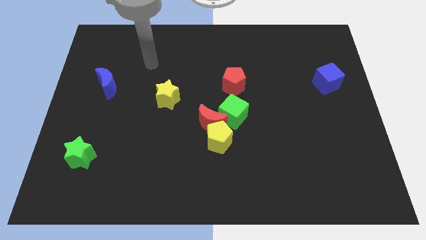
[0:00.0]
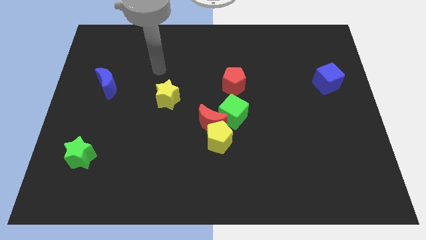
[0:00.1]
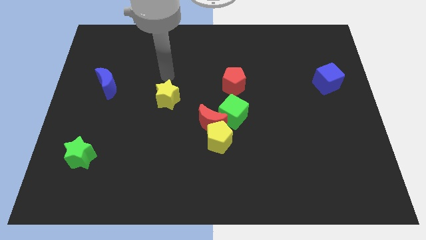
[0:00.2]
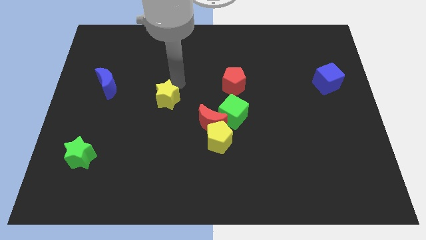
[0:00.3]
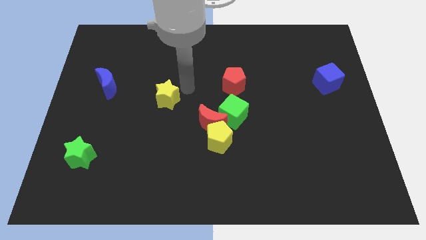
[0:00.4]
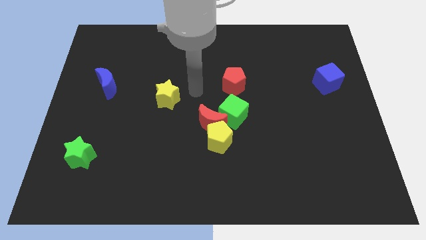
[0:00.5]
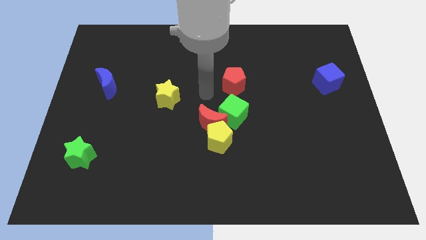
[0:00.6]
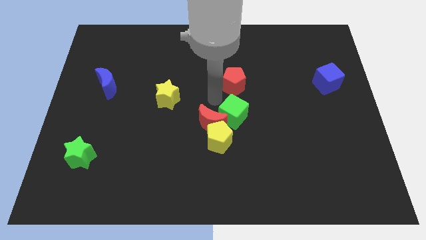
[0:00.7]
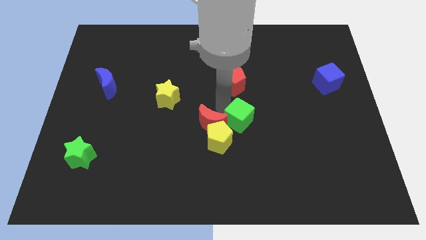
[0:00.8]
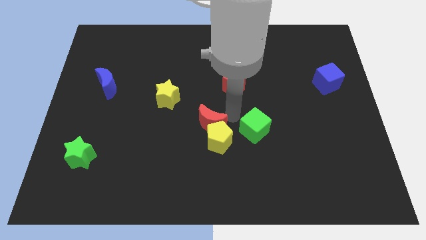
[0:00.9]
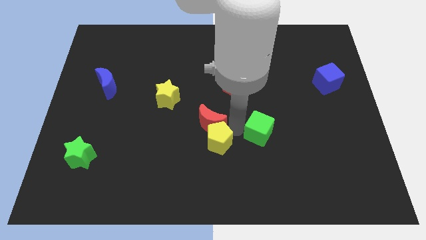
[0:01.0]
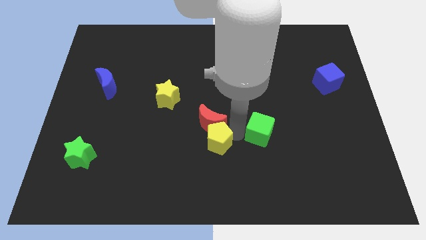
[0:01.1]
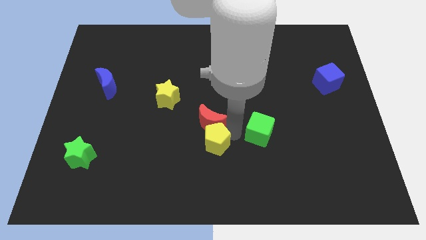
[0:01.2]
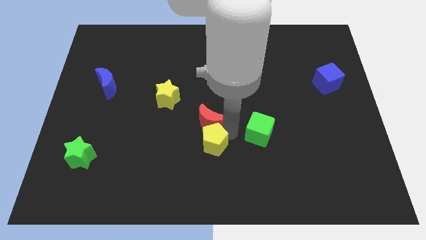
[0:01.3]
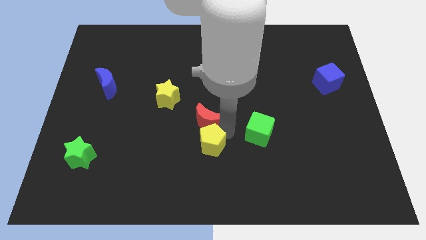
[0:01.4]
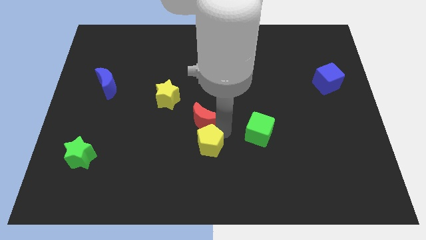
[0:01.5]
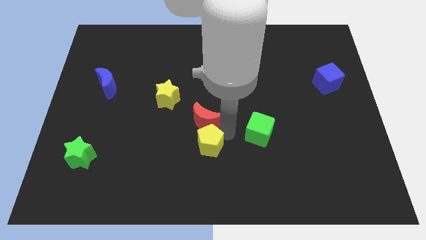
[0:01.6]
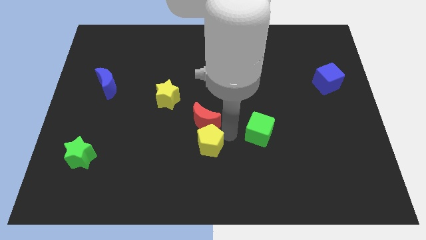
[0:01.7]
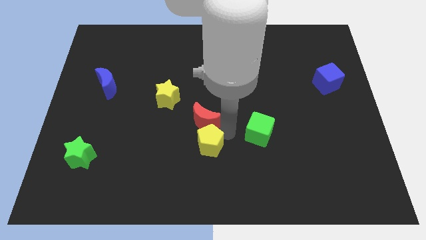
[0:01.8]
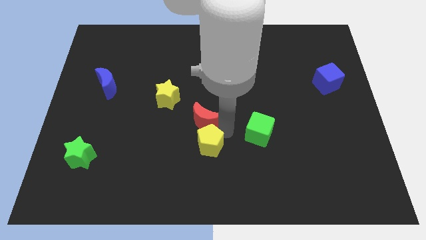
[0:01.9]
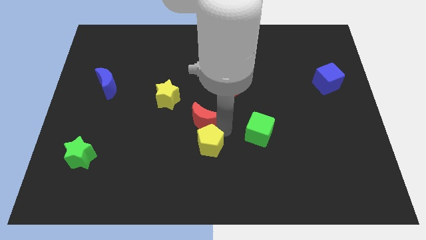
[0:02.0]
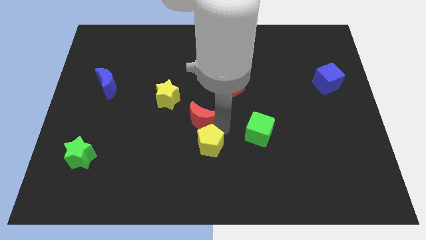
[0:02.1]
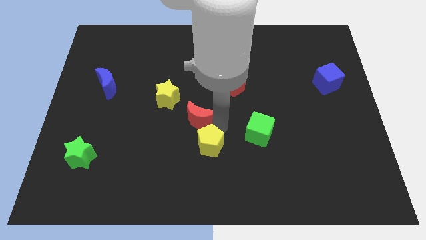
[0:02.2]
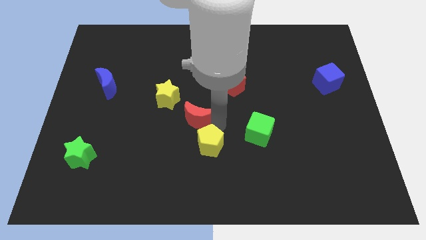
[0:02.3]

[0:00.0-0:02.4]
separate the red moon from the yellow pentagon and green cube

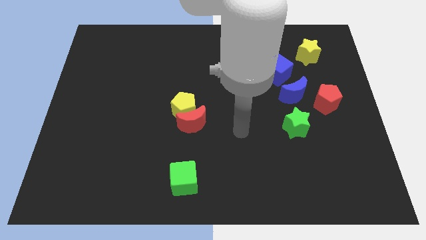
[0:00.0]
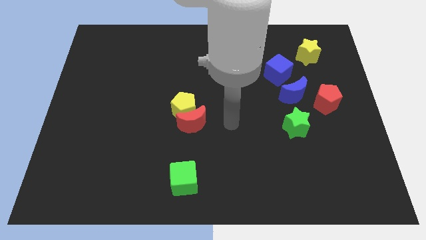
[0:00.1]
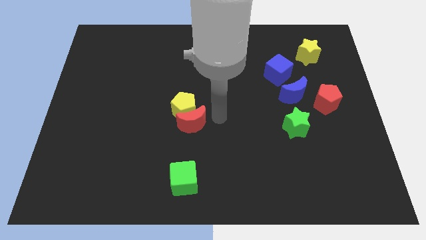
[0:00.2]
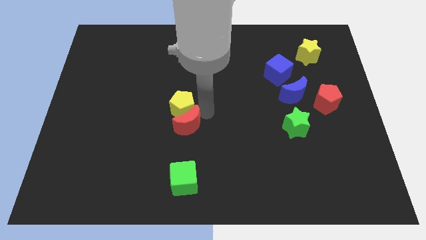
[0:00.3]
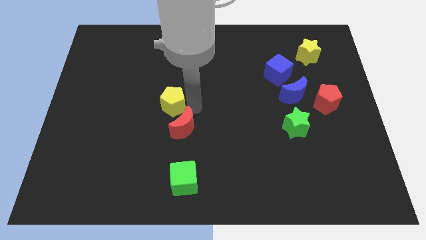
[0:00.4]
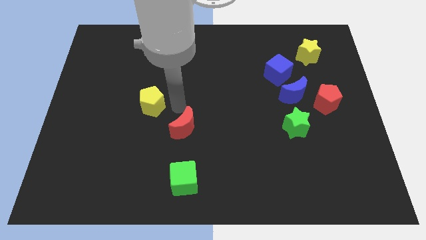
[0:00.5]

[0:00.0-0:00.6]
move the red moon away from the yellow pentagon

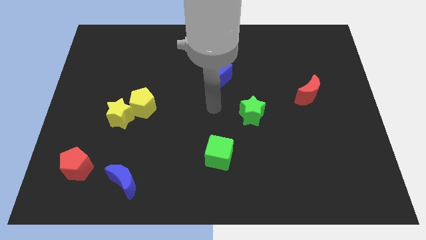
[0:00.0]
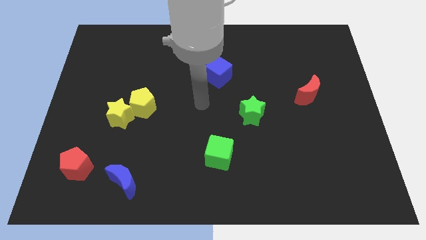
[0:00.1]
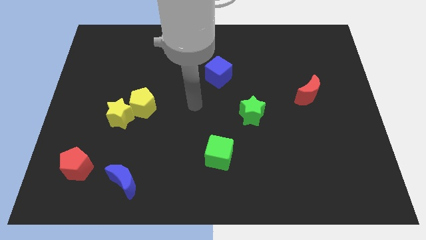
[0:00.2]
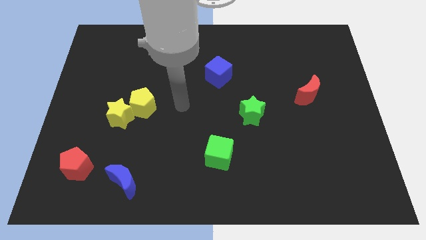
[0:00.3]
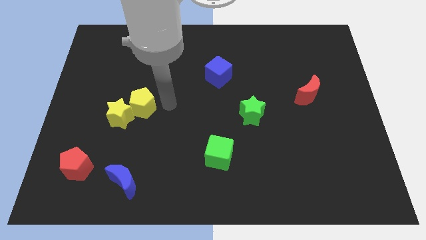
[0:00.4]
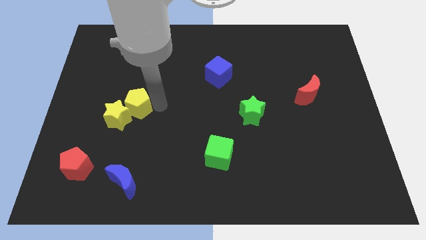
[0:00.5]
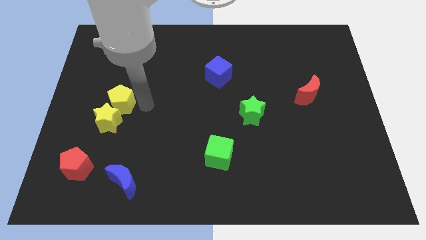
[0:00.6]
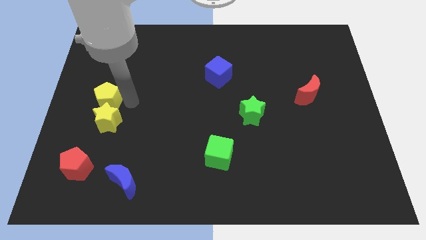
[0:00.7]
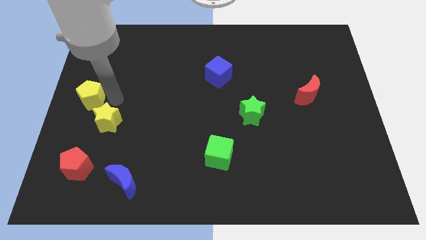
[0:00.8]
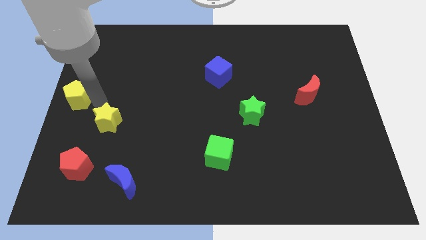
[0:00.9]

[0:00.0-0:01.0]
move the yellow star away from the yellow pentagon

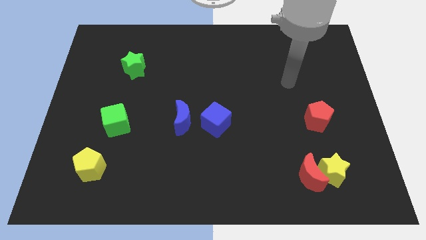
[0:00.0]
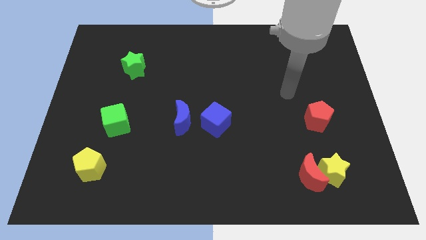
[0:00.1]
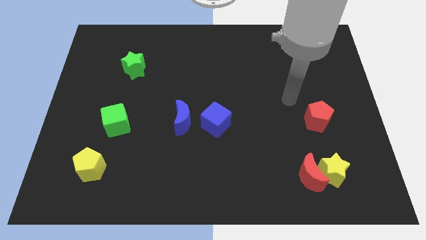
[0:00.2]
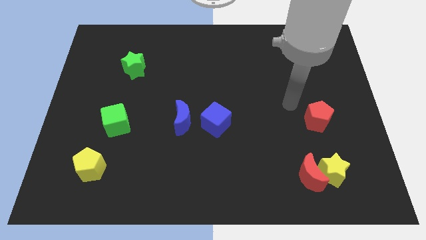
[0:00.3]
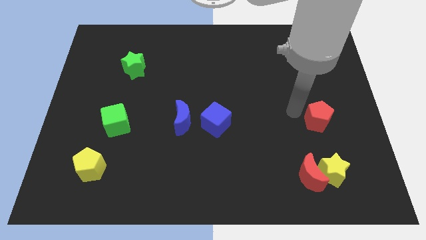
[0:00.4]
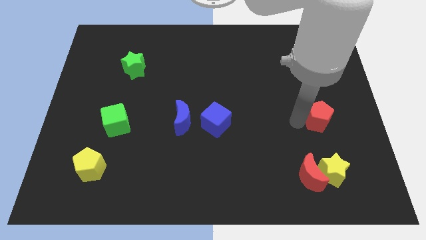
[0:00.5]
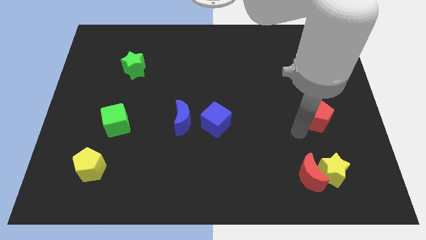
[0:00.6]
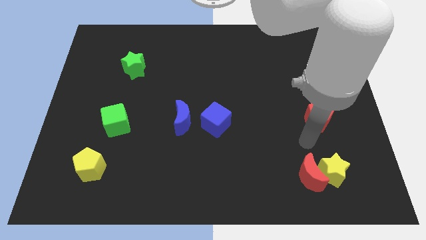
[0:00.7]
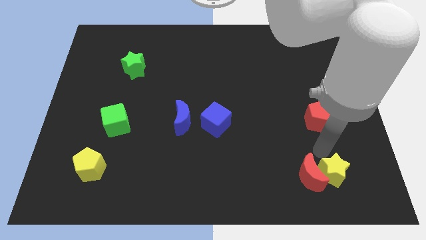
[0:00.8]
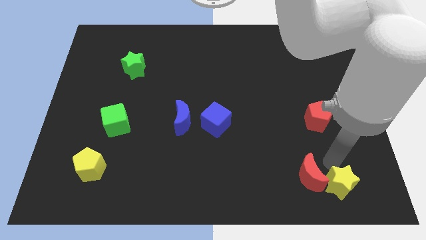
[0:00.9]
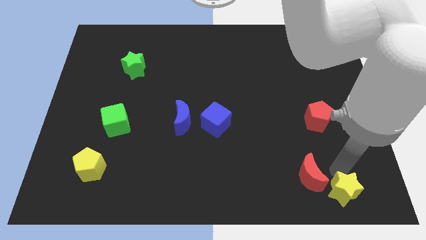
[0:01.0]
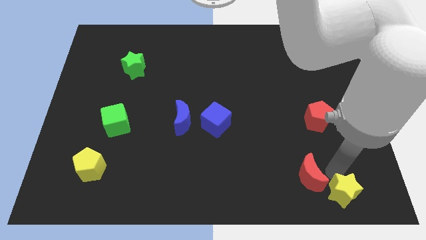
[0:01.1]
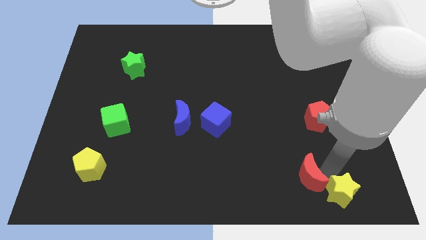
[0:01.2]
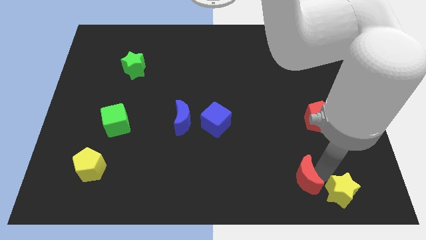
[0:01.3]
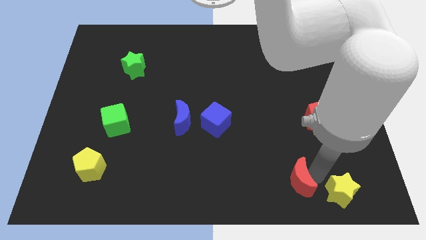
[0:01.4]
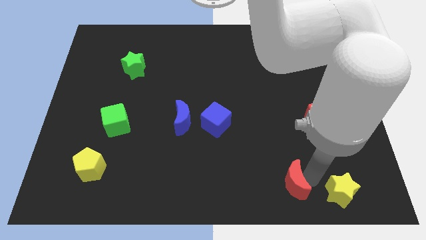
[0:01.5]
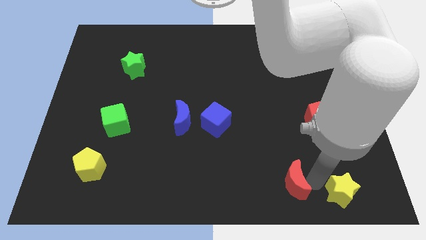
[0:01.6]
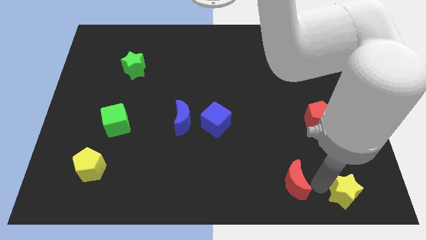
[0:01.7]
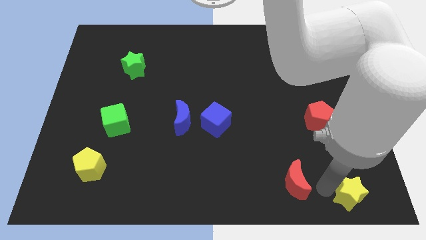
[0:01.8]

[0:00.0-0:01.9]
pull the red moon apart from the yellow star

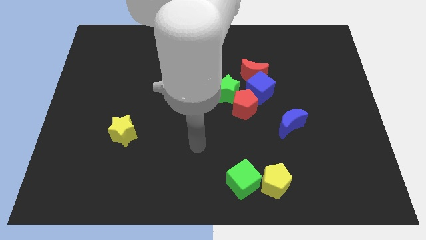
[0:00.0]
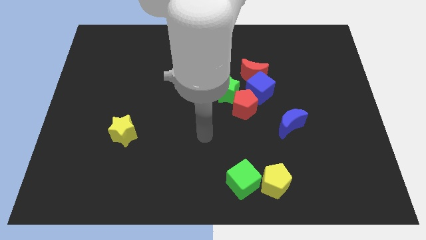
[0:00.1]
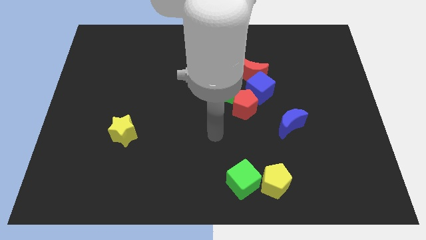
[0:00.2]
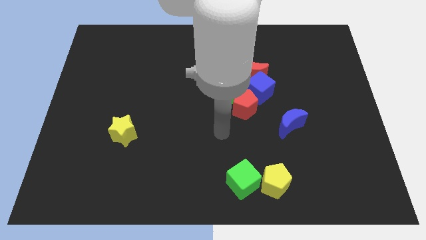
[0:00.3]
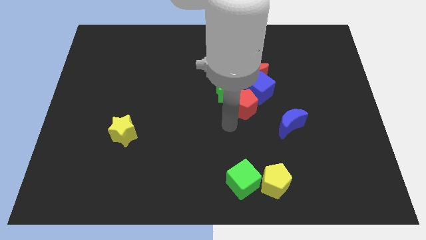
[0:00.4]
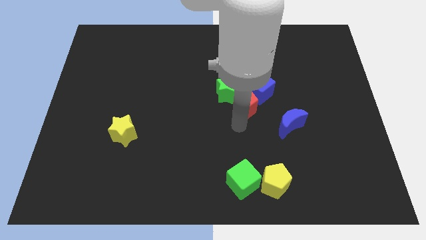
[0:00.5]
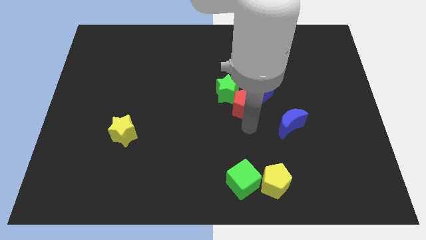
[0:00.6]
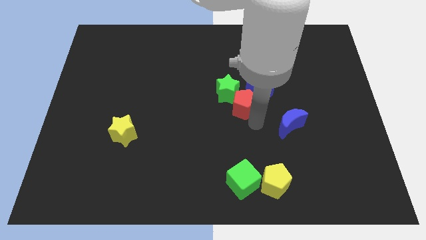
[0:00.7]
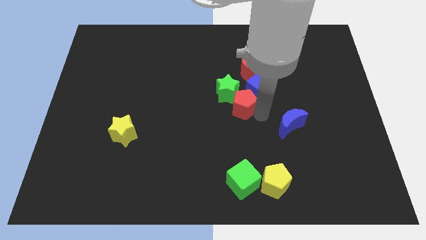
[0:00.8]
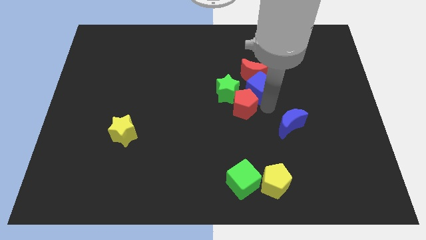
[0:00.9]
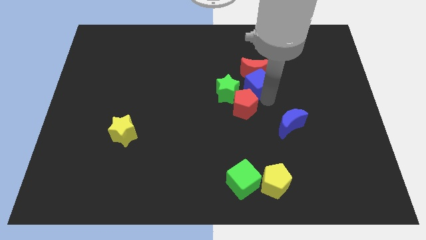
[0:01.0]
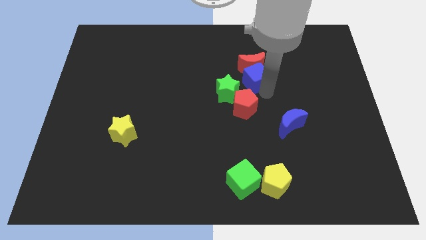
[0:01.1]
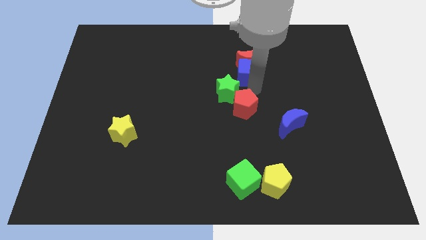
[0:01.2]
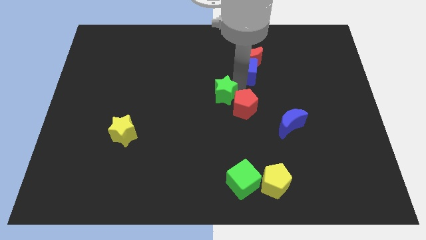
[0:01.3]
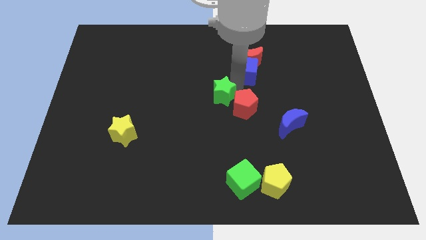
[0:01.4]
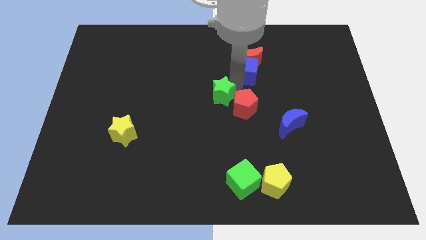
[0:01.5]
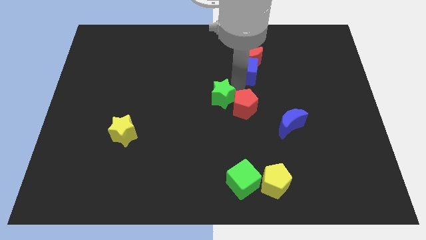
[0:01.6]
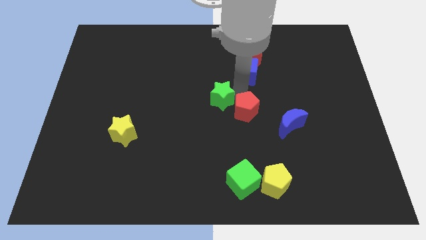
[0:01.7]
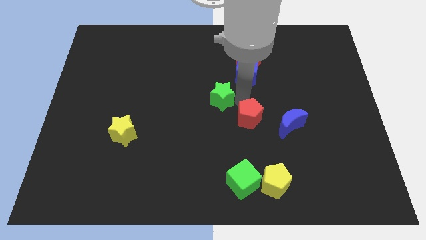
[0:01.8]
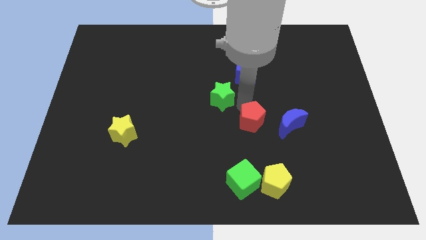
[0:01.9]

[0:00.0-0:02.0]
move the red pentagon away from the green star and blue cube

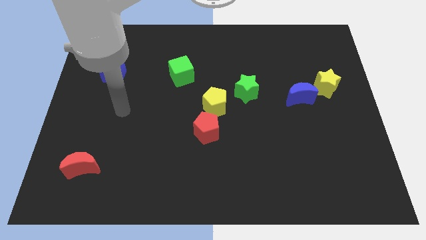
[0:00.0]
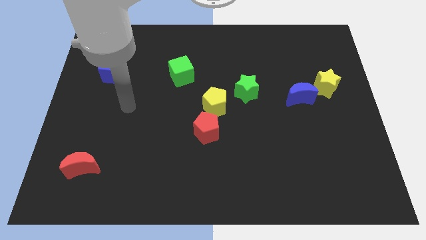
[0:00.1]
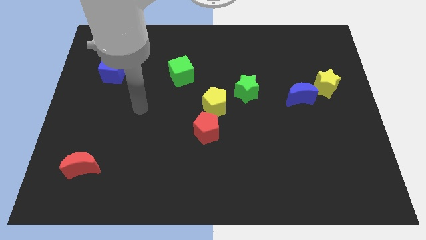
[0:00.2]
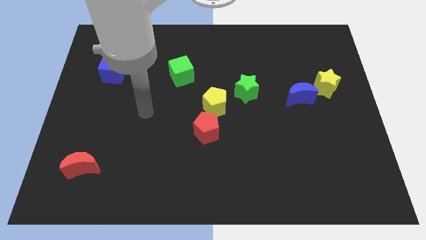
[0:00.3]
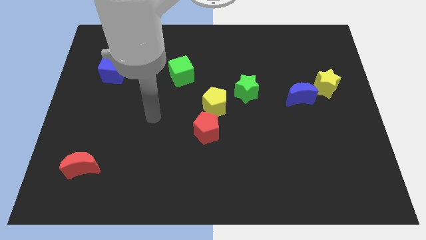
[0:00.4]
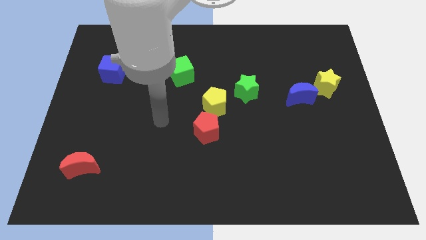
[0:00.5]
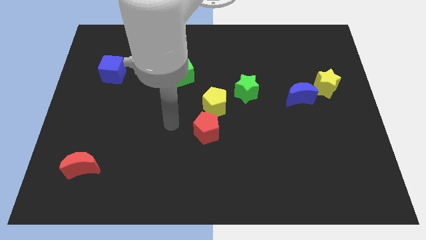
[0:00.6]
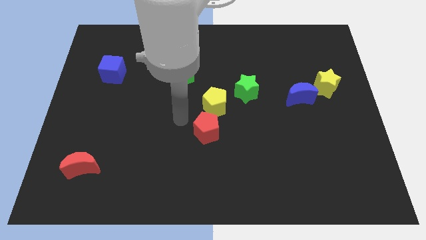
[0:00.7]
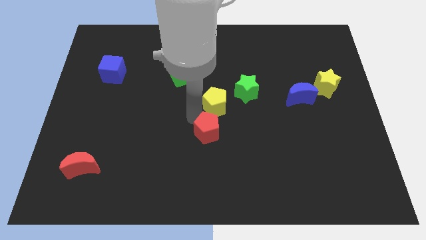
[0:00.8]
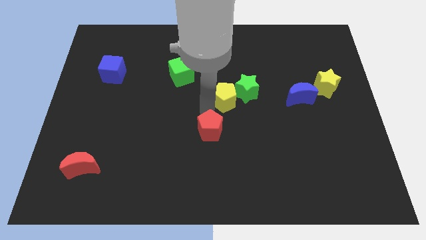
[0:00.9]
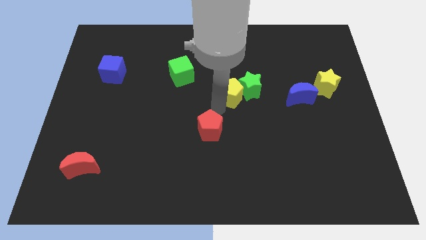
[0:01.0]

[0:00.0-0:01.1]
move the red pentagon away from the yellow pentagon

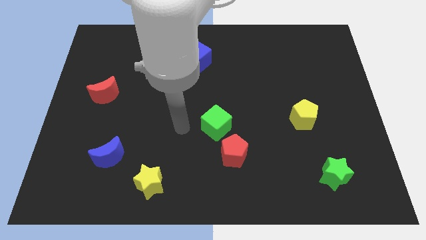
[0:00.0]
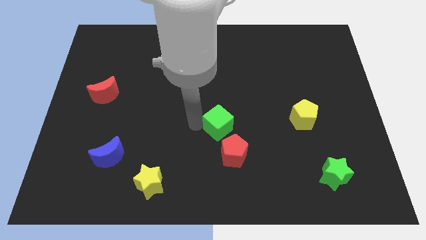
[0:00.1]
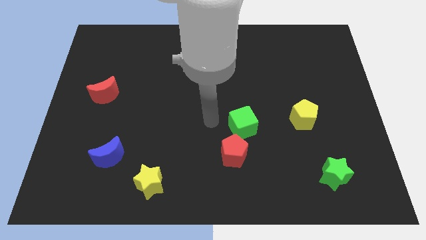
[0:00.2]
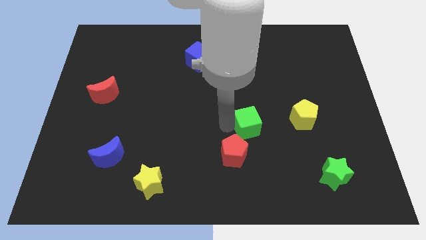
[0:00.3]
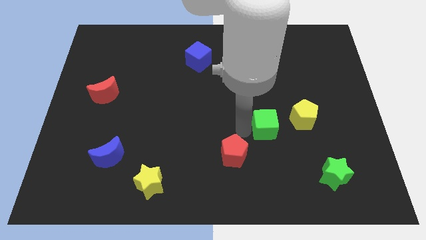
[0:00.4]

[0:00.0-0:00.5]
move the red pentagon away from the green cube

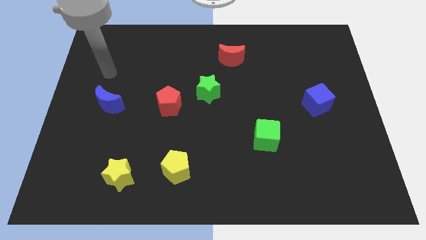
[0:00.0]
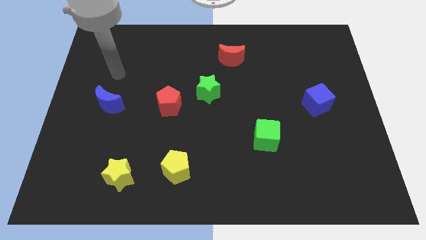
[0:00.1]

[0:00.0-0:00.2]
pull the red pentagon apart from the green star
